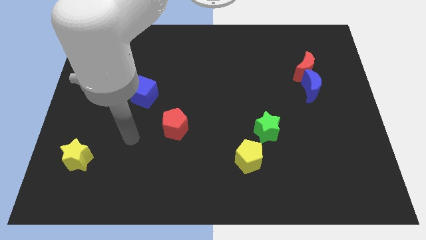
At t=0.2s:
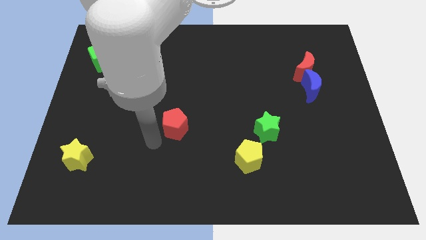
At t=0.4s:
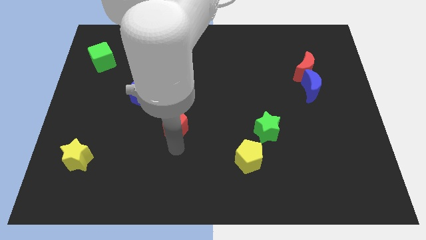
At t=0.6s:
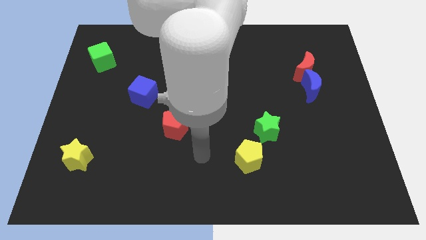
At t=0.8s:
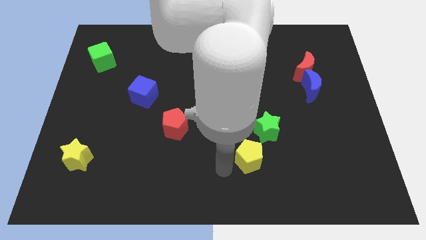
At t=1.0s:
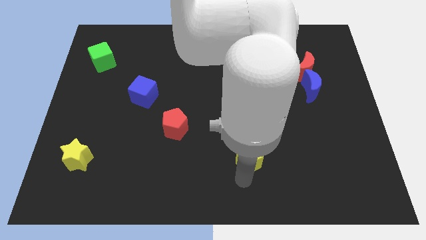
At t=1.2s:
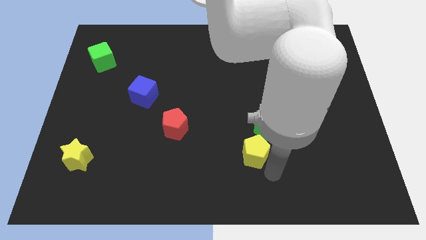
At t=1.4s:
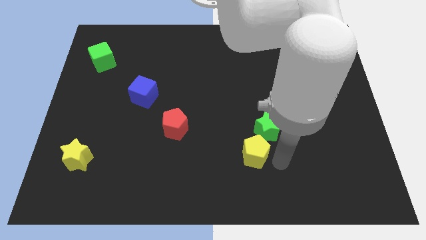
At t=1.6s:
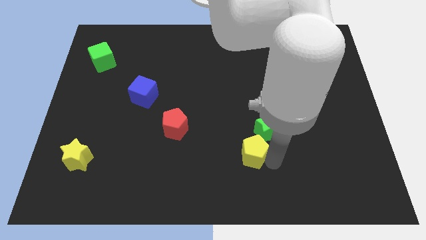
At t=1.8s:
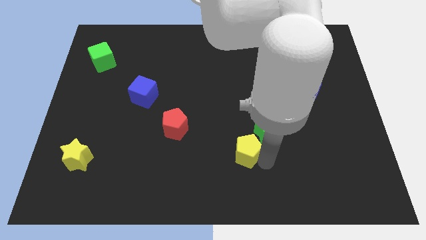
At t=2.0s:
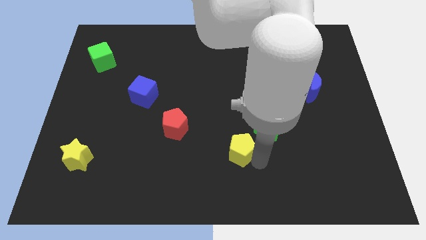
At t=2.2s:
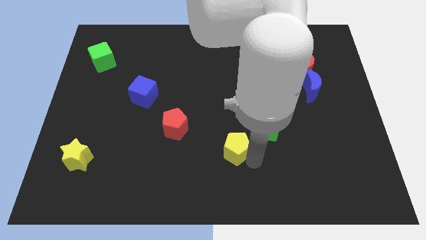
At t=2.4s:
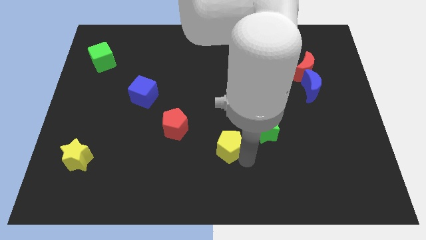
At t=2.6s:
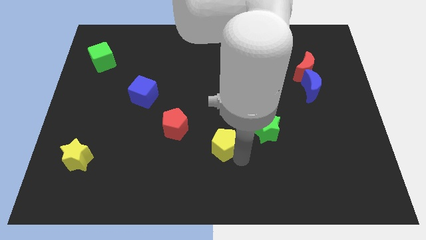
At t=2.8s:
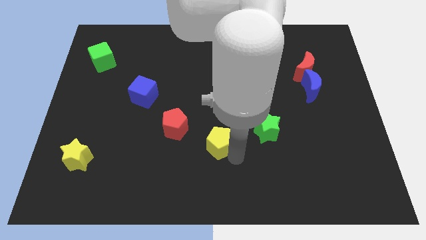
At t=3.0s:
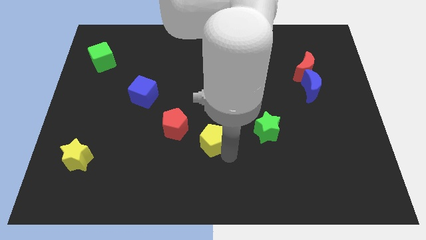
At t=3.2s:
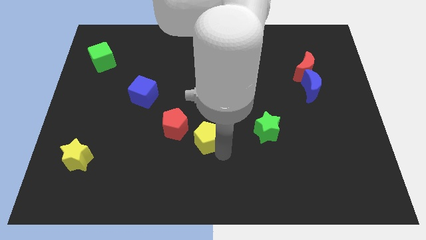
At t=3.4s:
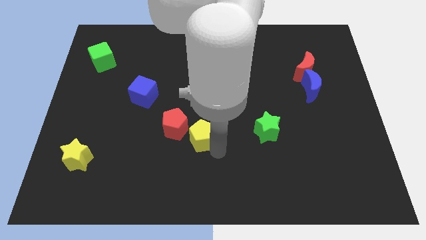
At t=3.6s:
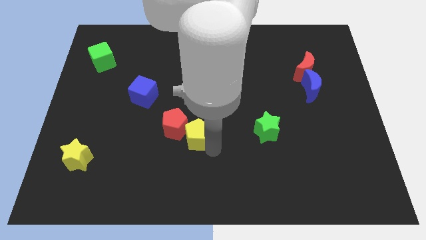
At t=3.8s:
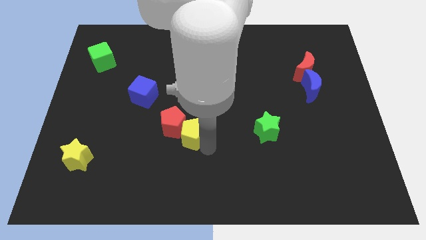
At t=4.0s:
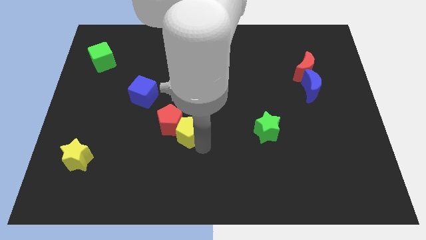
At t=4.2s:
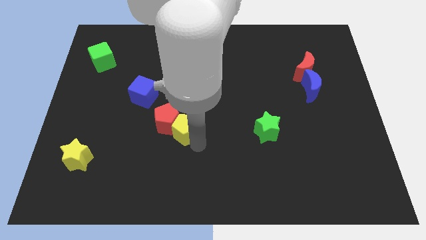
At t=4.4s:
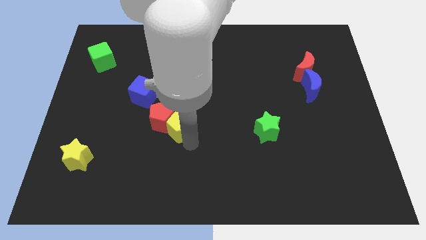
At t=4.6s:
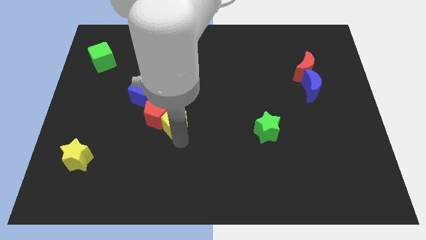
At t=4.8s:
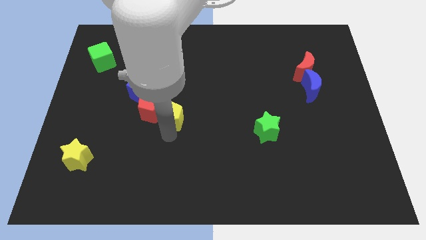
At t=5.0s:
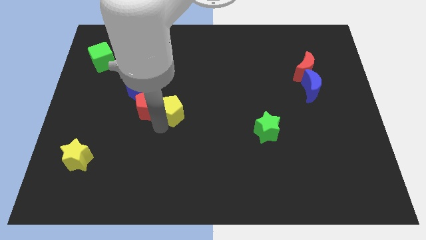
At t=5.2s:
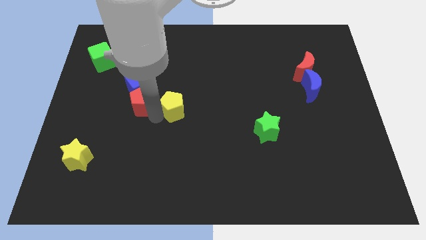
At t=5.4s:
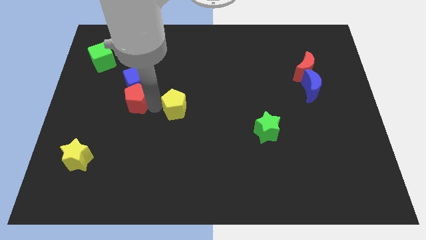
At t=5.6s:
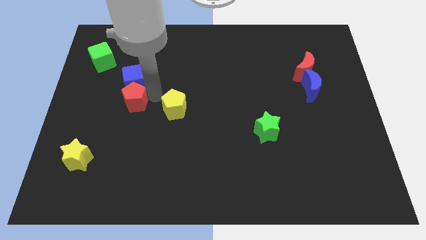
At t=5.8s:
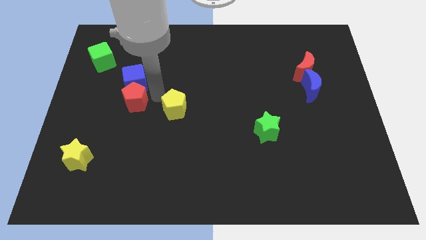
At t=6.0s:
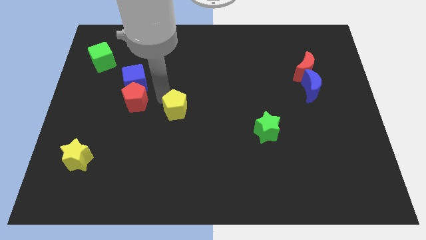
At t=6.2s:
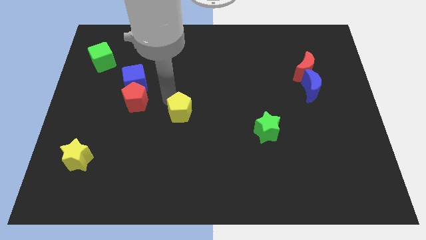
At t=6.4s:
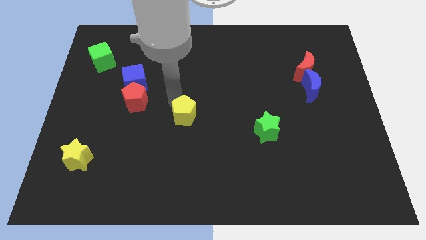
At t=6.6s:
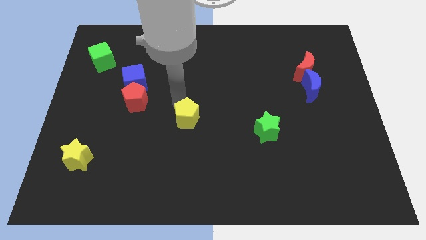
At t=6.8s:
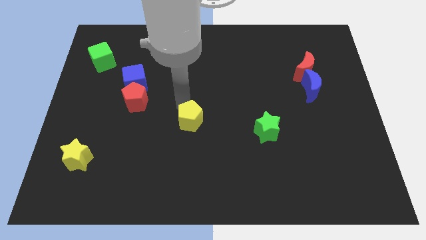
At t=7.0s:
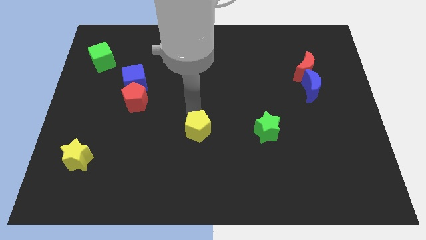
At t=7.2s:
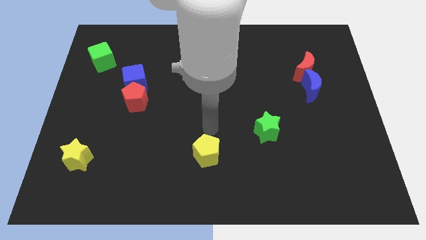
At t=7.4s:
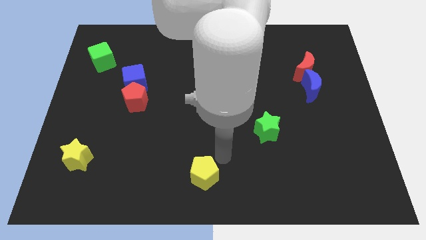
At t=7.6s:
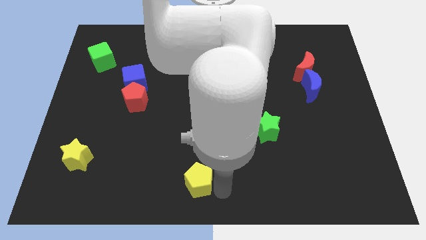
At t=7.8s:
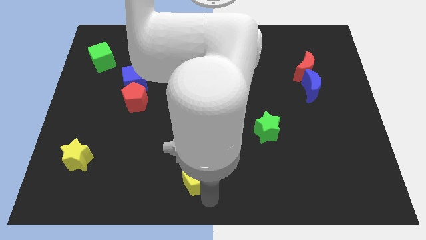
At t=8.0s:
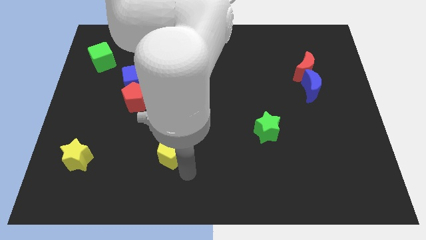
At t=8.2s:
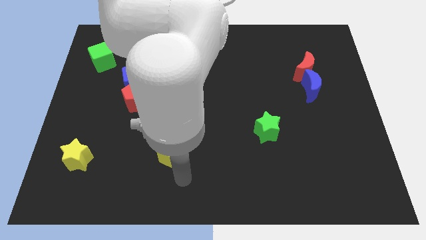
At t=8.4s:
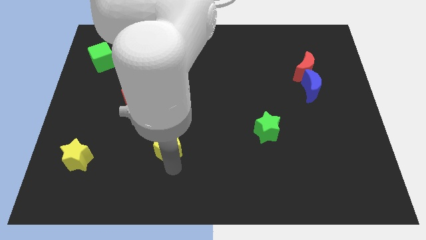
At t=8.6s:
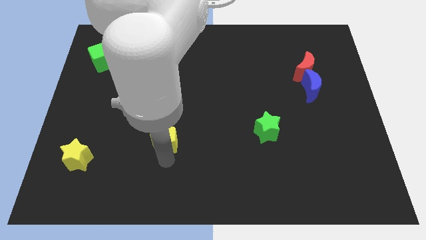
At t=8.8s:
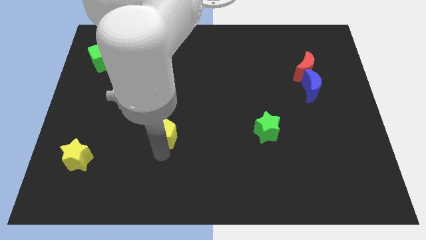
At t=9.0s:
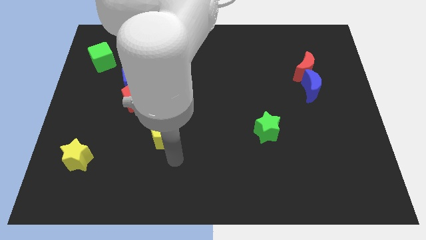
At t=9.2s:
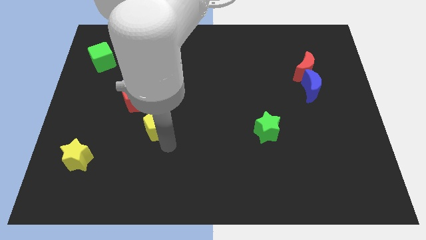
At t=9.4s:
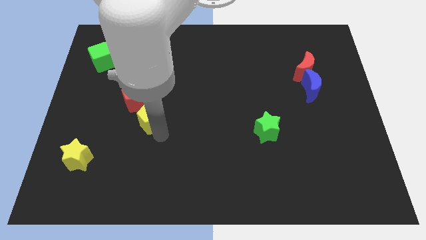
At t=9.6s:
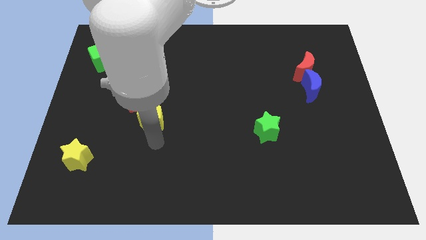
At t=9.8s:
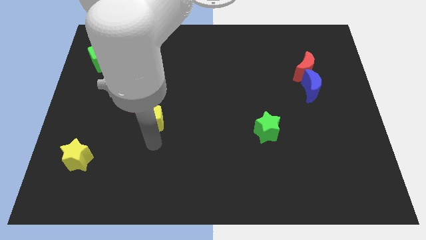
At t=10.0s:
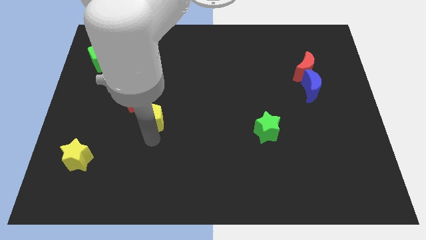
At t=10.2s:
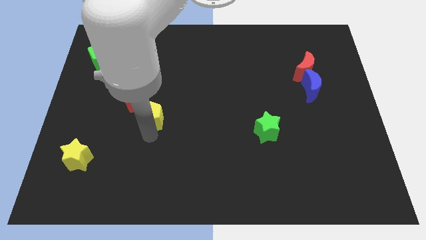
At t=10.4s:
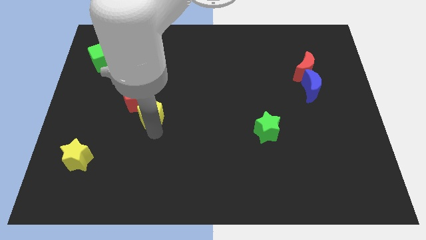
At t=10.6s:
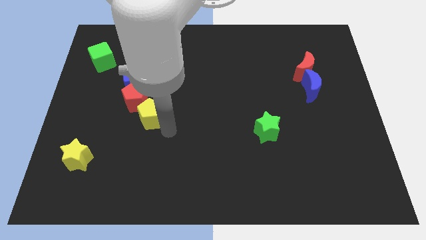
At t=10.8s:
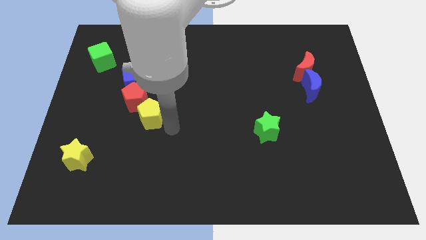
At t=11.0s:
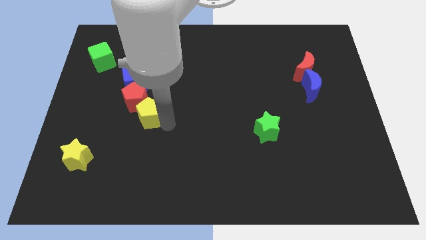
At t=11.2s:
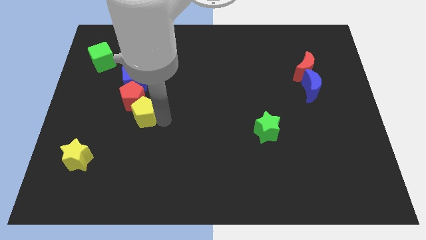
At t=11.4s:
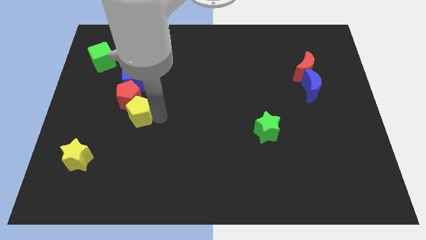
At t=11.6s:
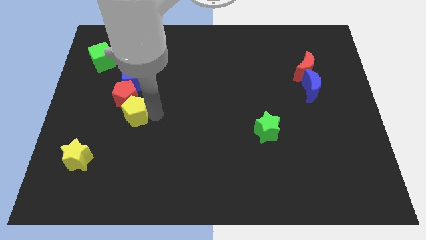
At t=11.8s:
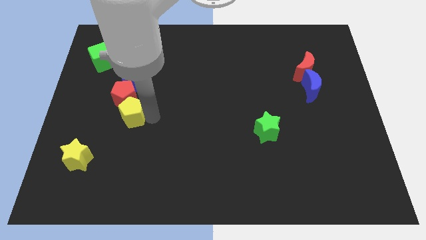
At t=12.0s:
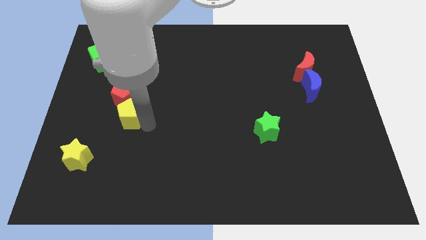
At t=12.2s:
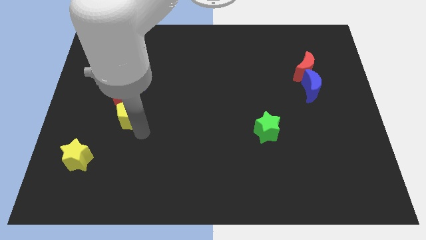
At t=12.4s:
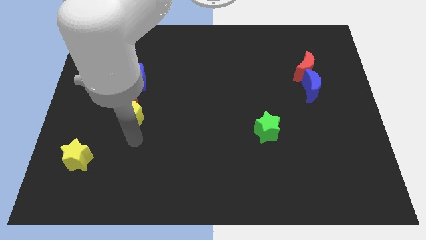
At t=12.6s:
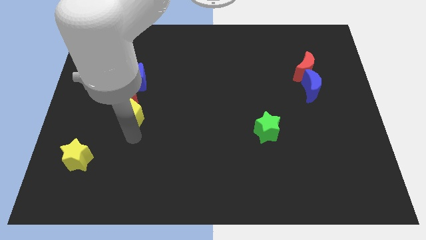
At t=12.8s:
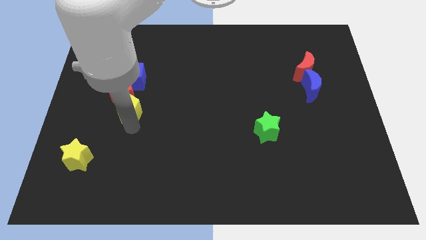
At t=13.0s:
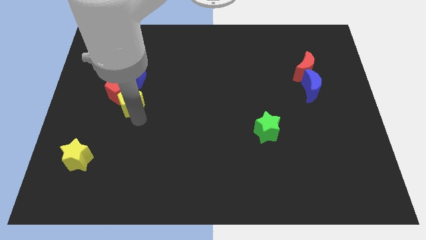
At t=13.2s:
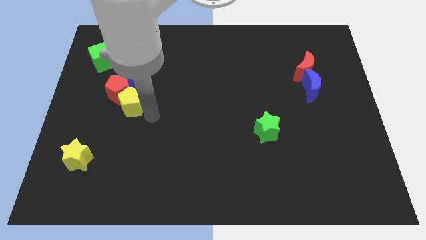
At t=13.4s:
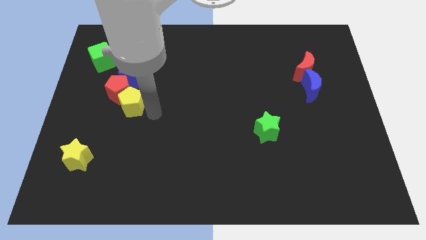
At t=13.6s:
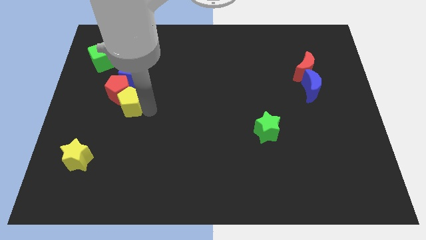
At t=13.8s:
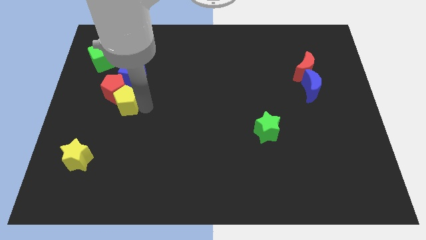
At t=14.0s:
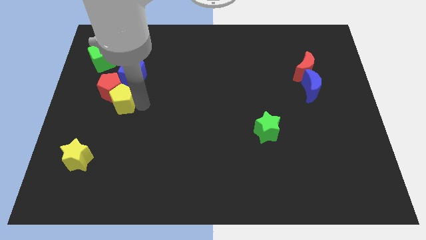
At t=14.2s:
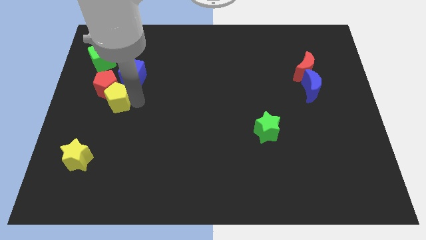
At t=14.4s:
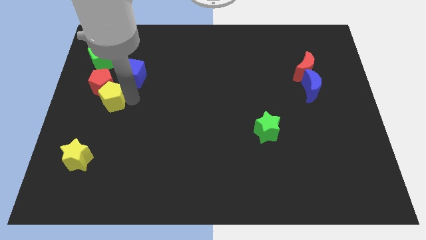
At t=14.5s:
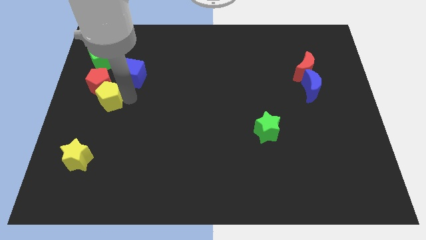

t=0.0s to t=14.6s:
move the yellow pentagon below the green cube
